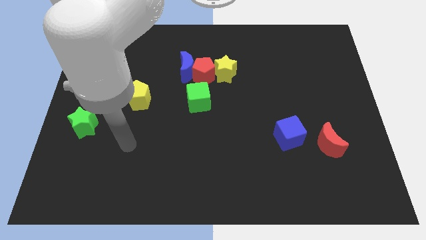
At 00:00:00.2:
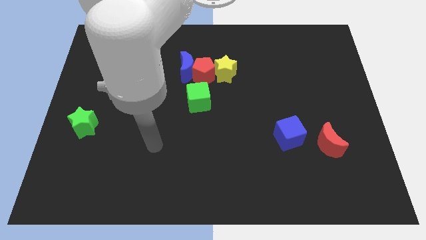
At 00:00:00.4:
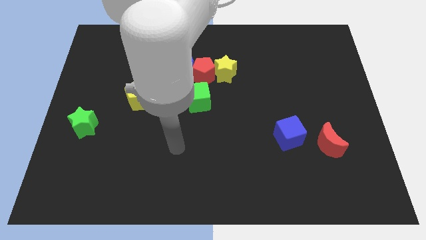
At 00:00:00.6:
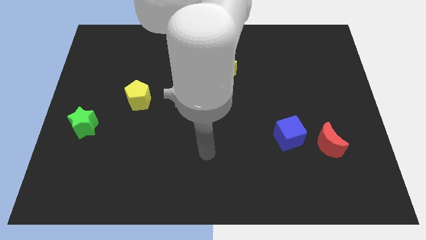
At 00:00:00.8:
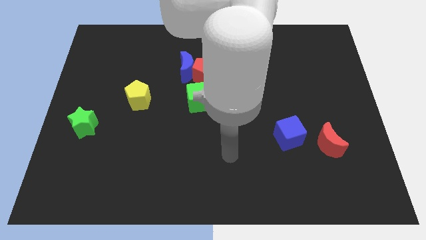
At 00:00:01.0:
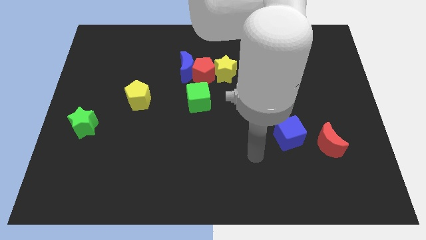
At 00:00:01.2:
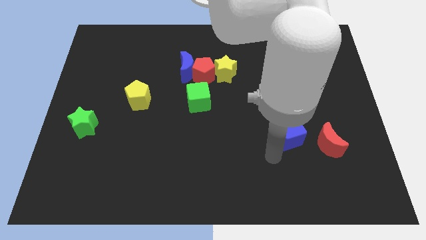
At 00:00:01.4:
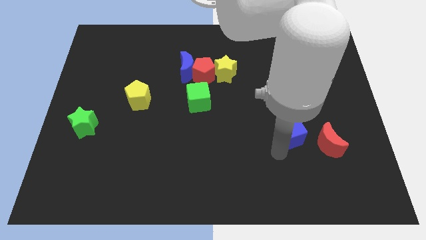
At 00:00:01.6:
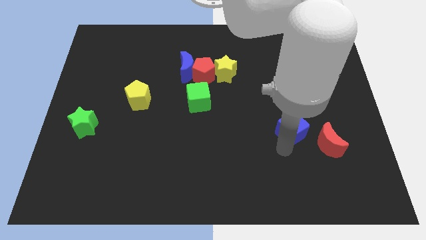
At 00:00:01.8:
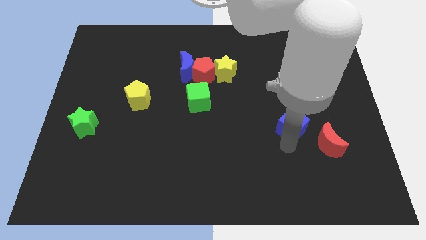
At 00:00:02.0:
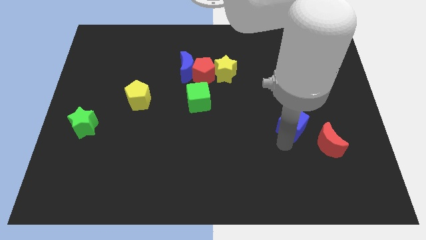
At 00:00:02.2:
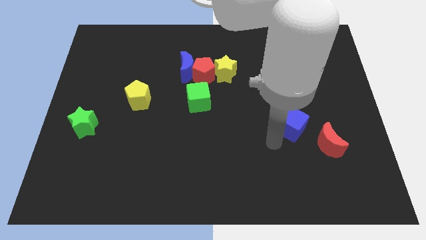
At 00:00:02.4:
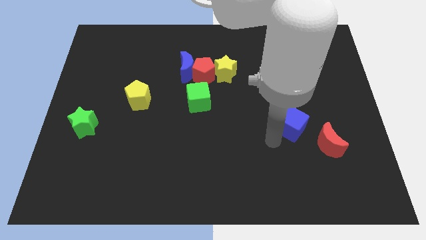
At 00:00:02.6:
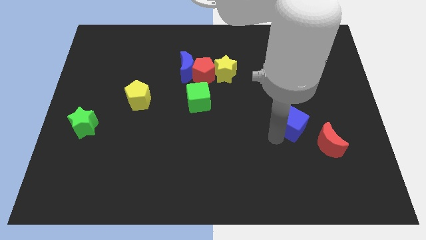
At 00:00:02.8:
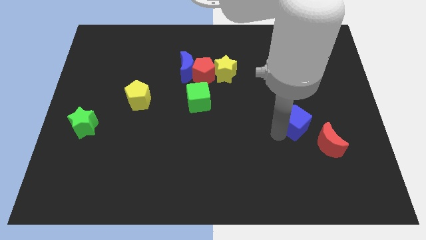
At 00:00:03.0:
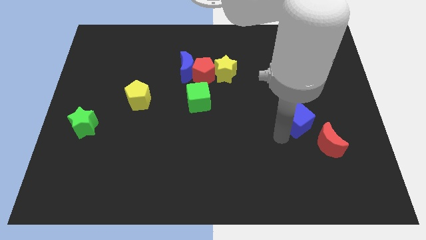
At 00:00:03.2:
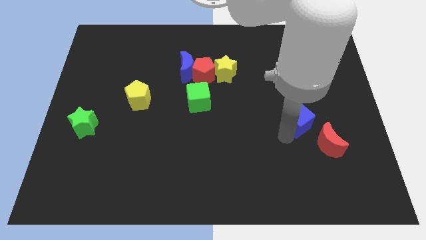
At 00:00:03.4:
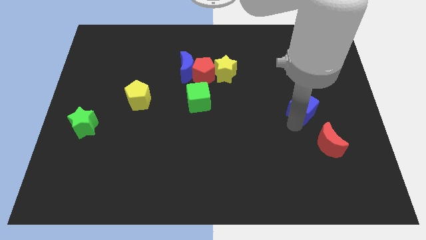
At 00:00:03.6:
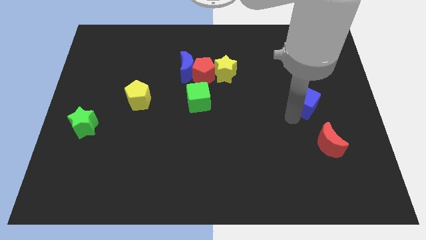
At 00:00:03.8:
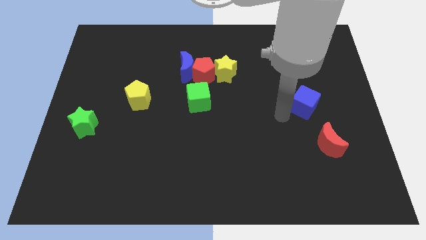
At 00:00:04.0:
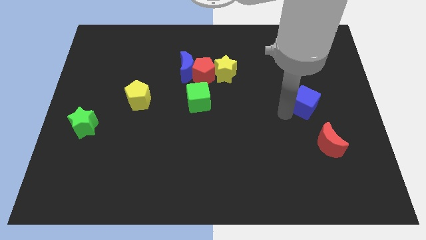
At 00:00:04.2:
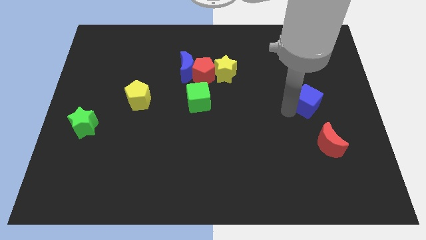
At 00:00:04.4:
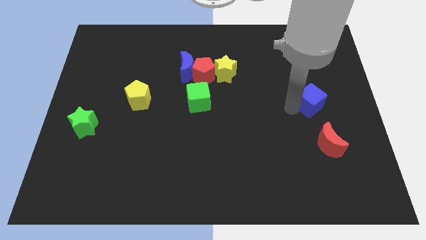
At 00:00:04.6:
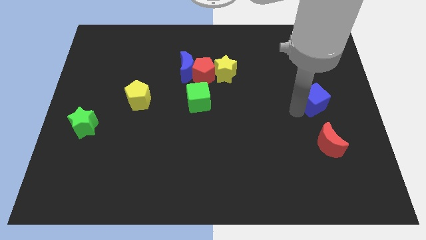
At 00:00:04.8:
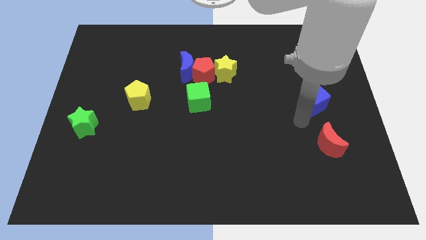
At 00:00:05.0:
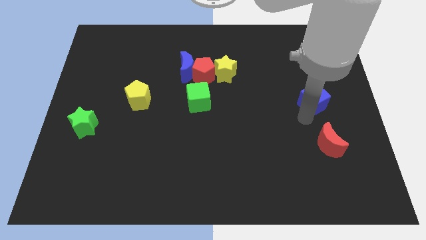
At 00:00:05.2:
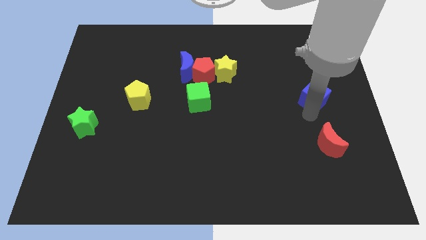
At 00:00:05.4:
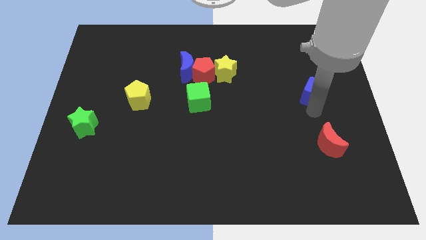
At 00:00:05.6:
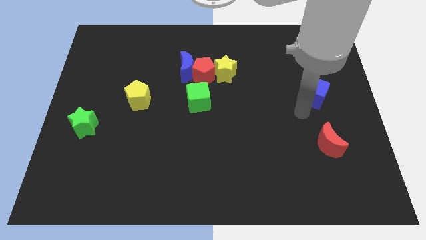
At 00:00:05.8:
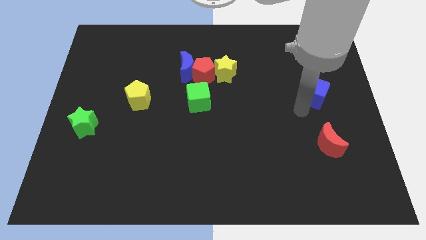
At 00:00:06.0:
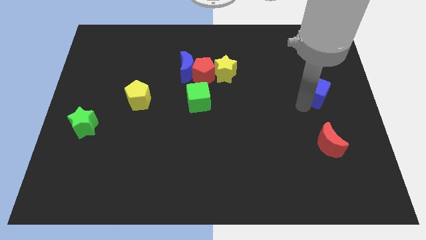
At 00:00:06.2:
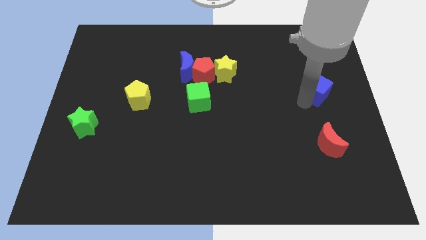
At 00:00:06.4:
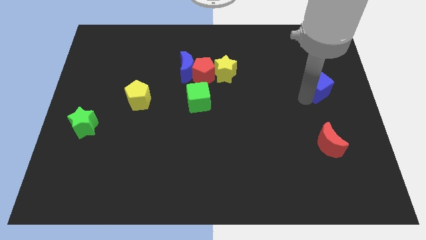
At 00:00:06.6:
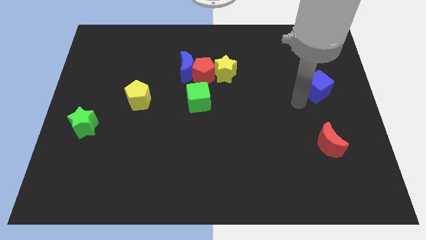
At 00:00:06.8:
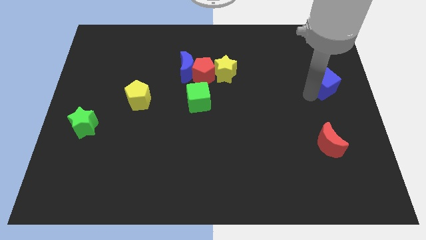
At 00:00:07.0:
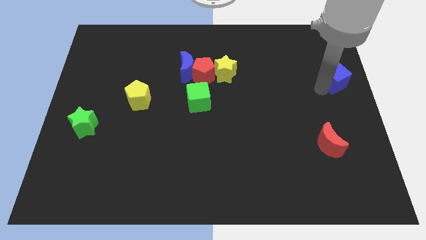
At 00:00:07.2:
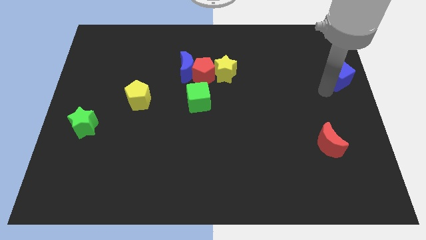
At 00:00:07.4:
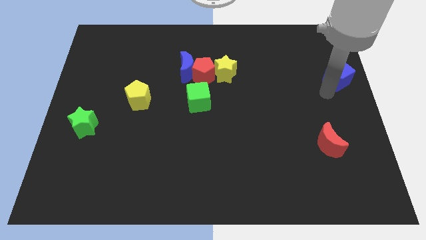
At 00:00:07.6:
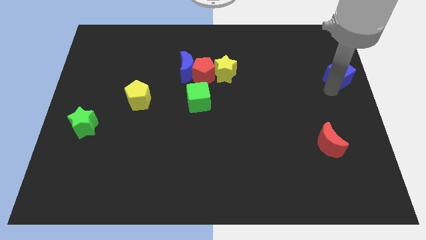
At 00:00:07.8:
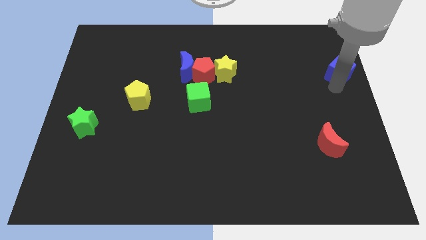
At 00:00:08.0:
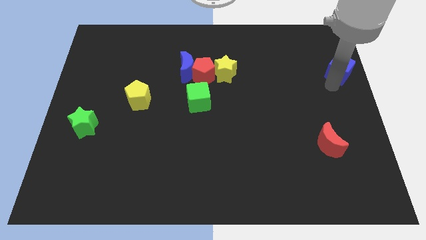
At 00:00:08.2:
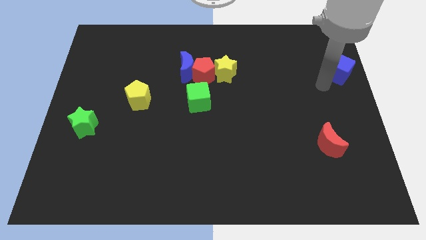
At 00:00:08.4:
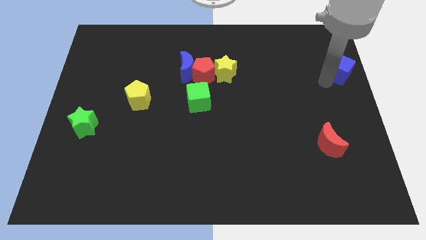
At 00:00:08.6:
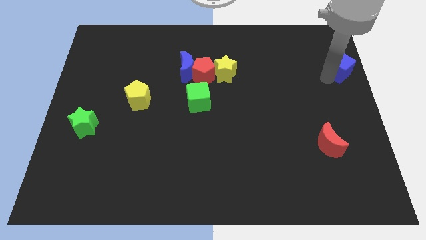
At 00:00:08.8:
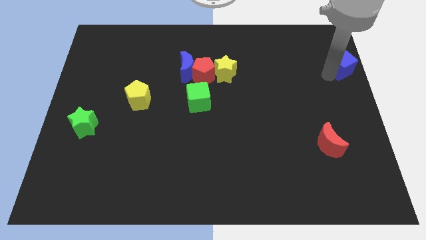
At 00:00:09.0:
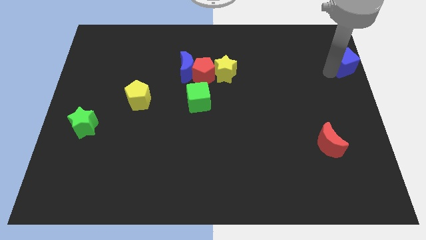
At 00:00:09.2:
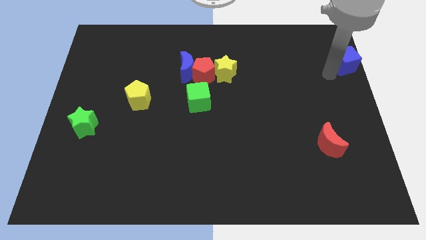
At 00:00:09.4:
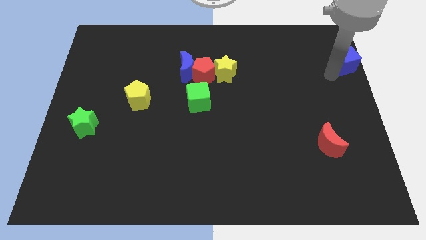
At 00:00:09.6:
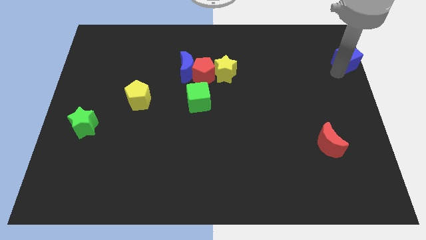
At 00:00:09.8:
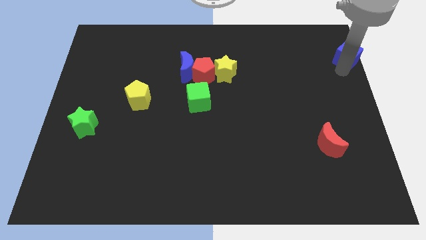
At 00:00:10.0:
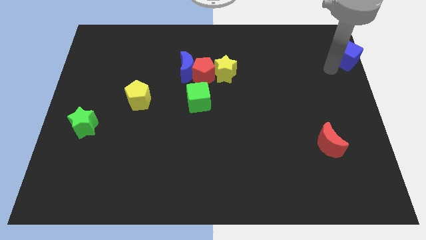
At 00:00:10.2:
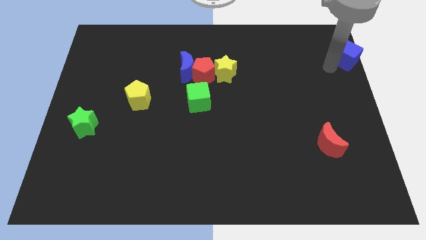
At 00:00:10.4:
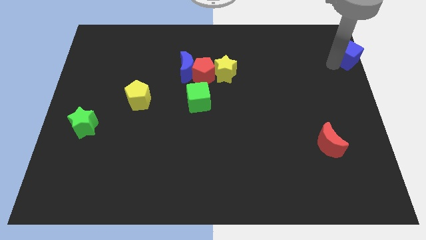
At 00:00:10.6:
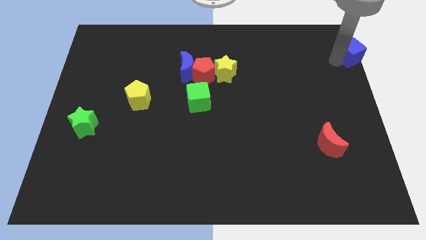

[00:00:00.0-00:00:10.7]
slide the blue cube to the top right corner
